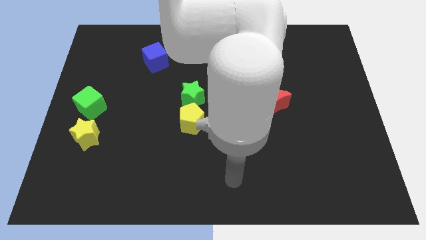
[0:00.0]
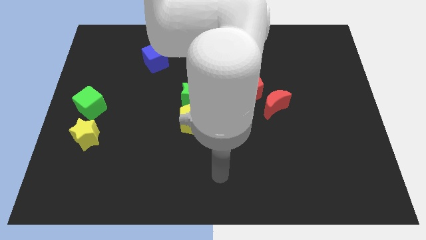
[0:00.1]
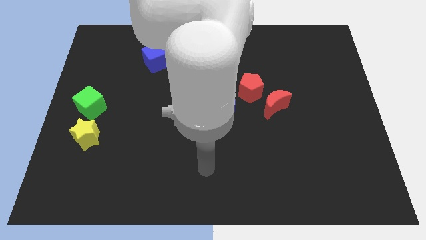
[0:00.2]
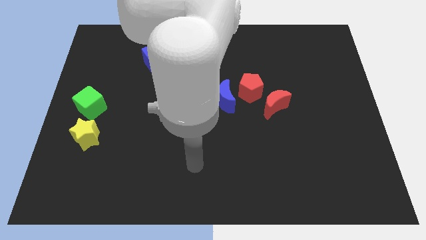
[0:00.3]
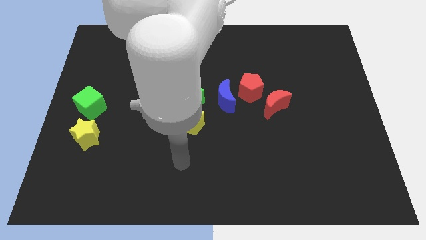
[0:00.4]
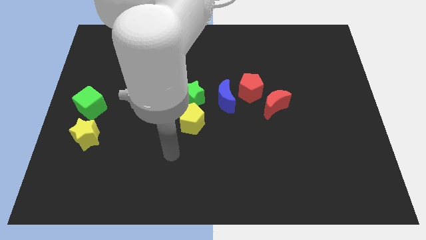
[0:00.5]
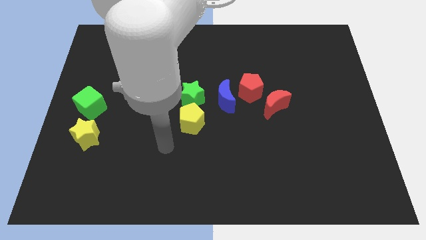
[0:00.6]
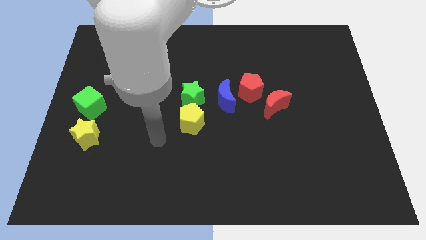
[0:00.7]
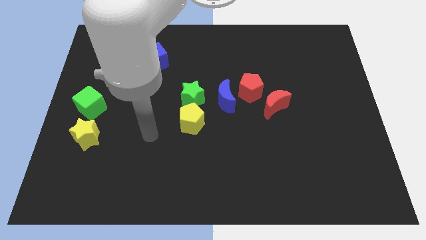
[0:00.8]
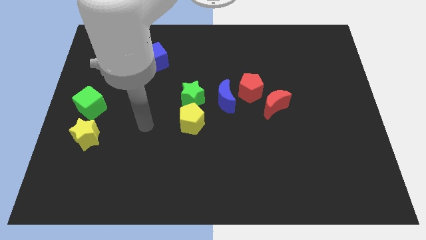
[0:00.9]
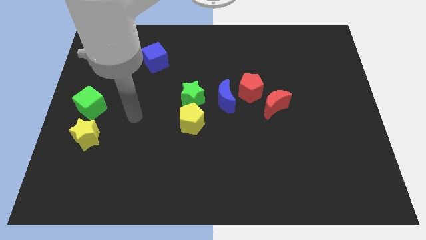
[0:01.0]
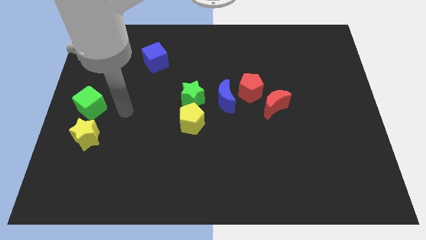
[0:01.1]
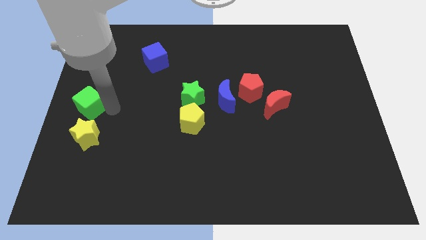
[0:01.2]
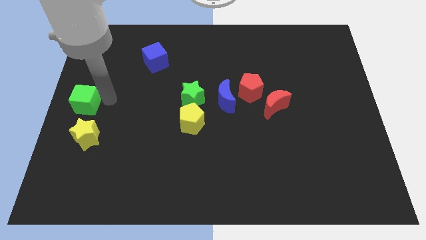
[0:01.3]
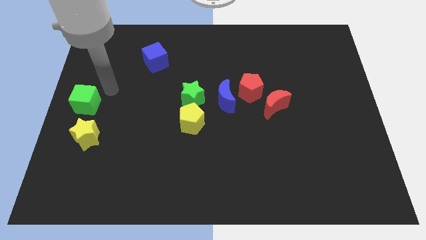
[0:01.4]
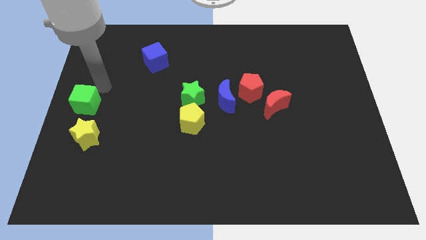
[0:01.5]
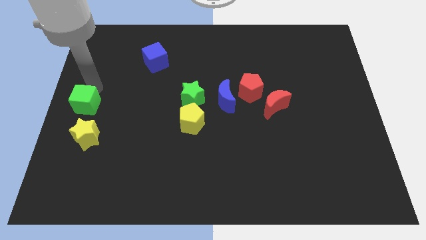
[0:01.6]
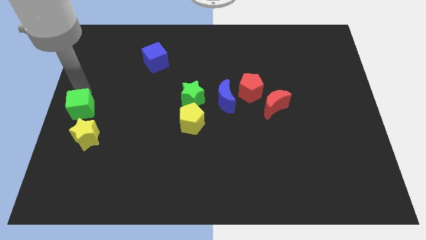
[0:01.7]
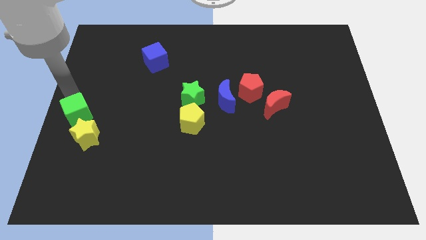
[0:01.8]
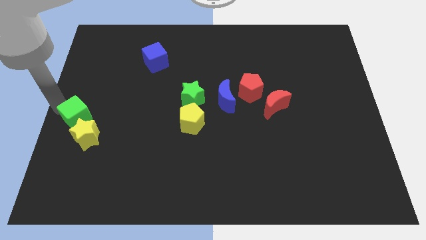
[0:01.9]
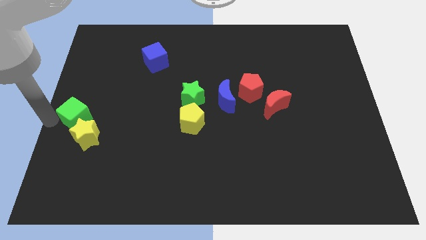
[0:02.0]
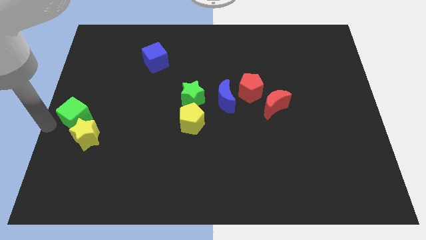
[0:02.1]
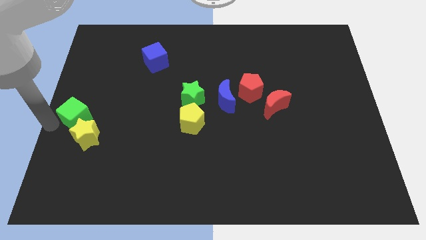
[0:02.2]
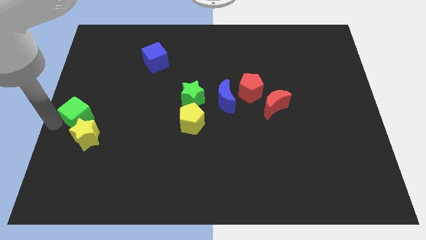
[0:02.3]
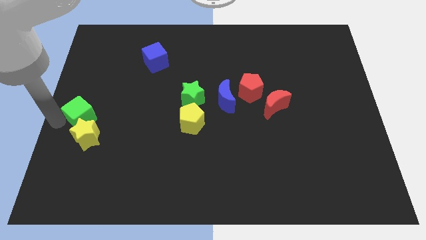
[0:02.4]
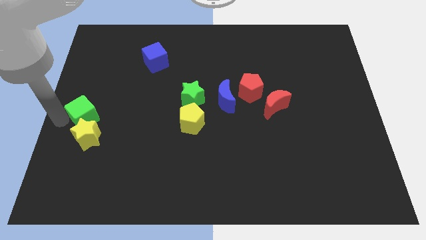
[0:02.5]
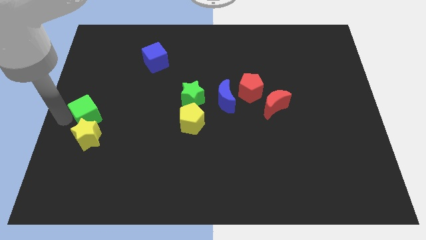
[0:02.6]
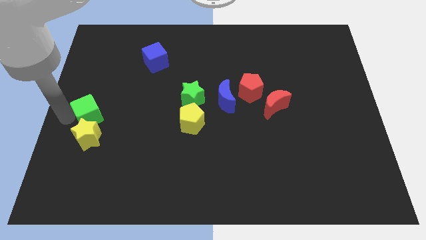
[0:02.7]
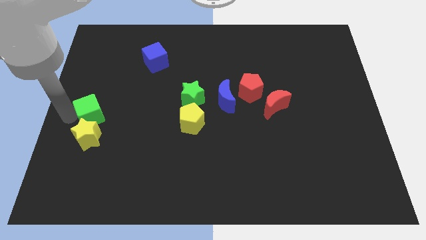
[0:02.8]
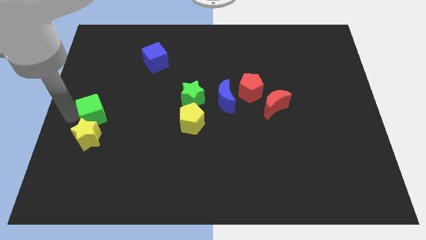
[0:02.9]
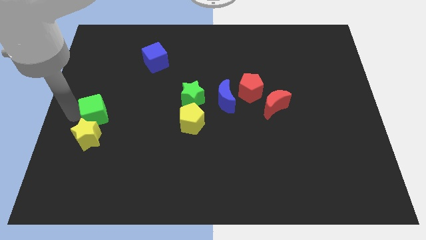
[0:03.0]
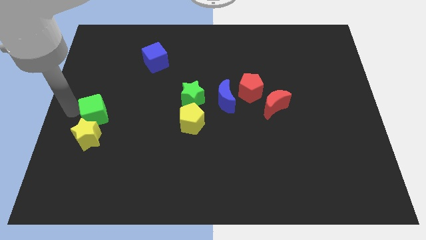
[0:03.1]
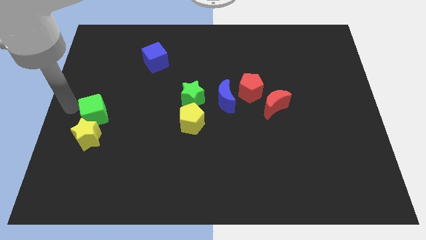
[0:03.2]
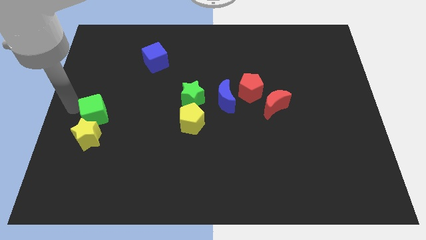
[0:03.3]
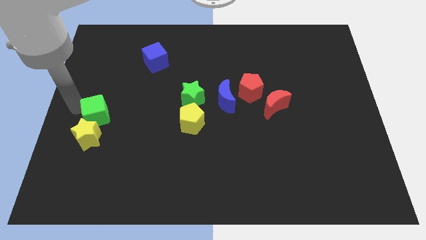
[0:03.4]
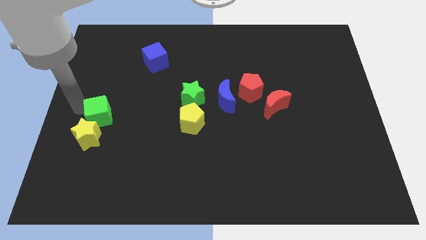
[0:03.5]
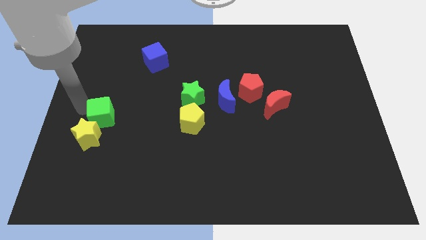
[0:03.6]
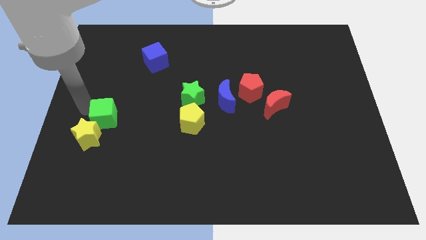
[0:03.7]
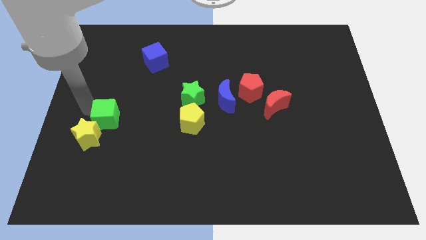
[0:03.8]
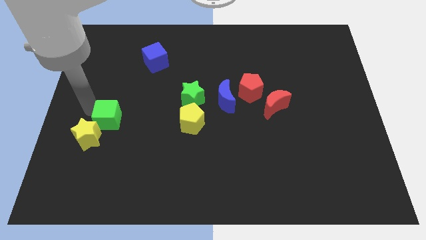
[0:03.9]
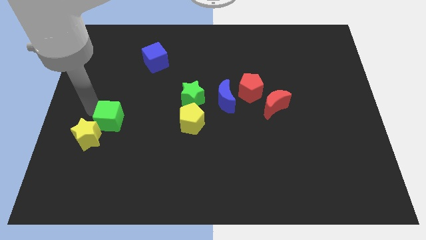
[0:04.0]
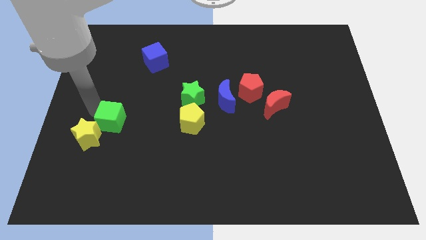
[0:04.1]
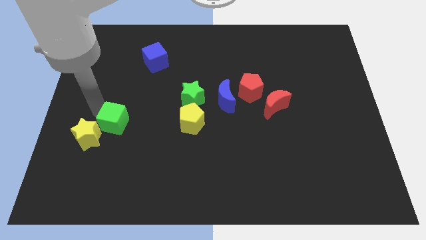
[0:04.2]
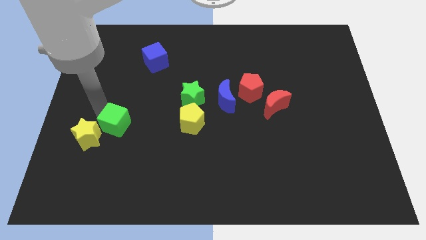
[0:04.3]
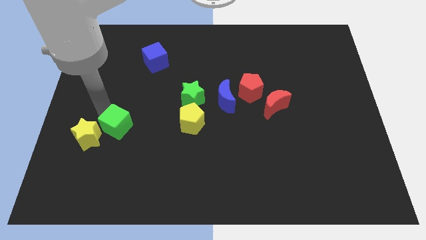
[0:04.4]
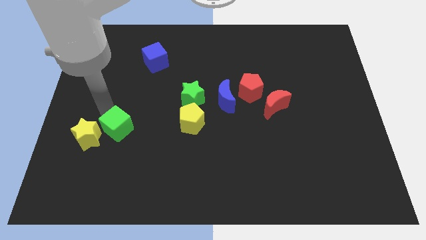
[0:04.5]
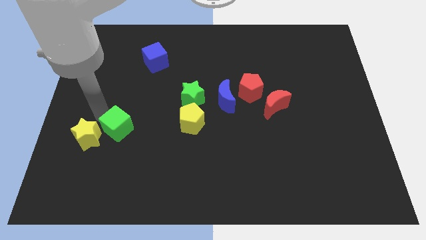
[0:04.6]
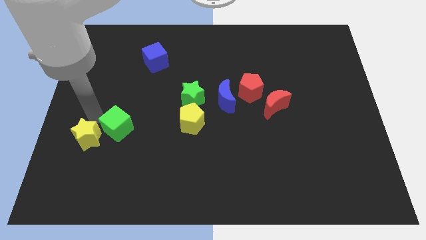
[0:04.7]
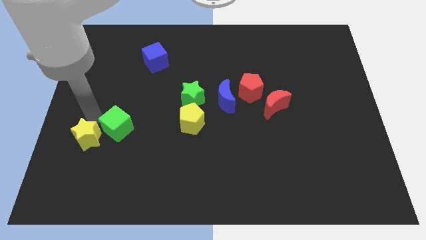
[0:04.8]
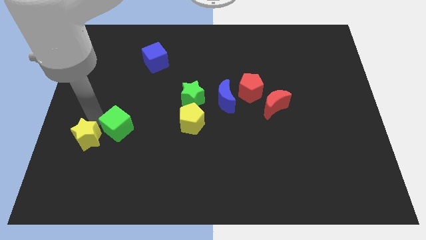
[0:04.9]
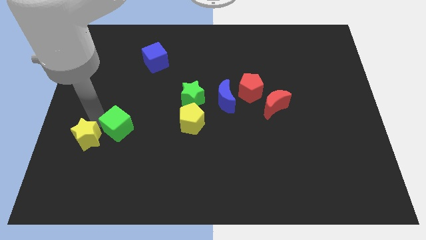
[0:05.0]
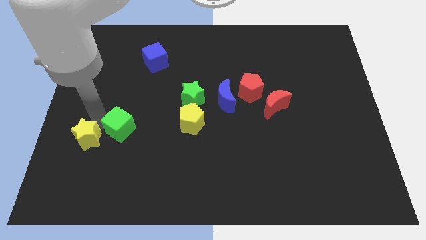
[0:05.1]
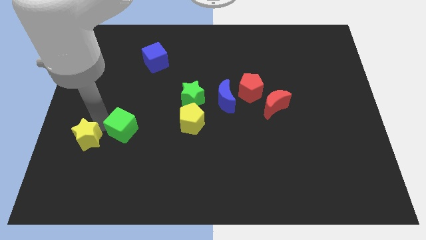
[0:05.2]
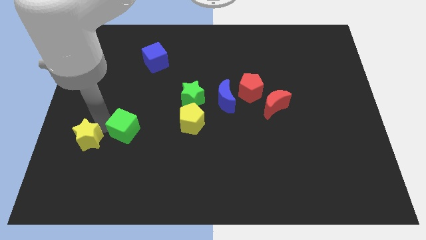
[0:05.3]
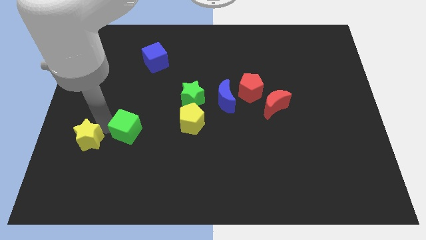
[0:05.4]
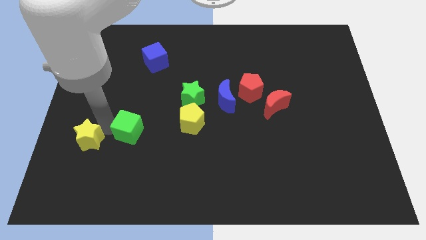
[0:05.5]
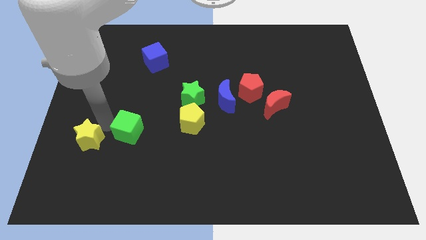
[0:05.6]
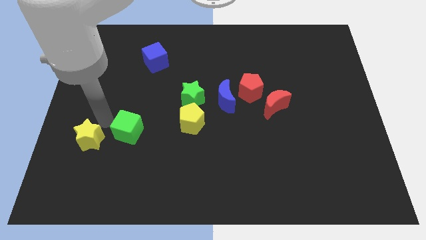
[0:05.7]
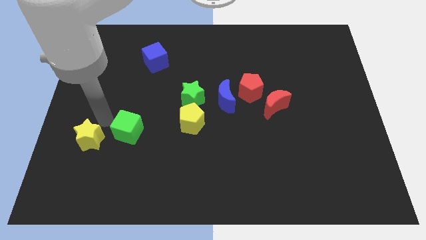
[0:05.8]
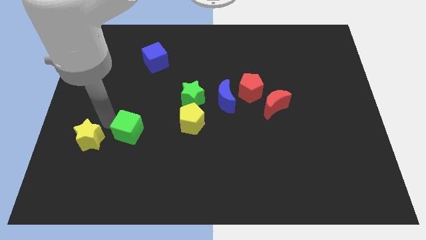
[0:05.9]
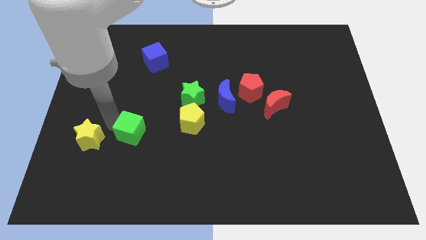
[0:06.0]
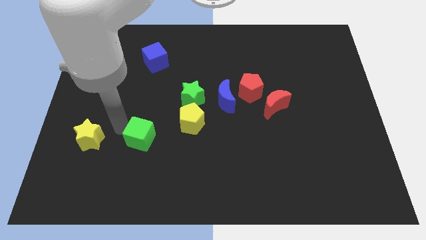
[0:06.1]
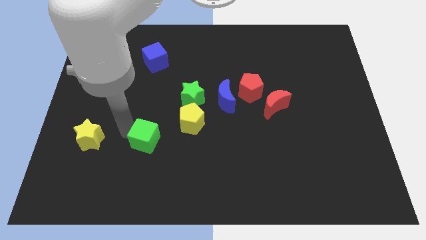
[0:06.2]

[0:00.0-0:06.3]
push the green cube to the bottom left of the yellow pentagon
